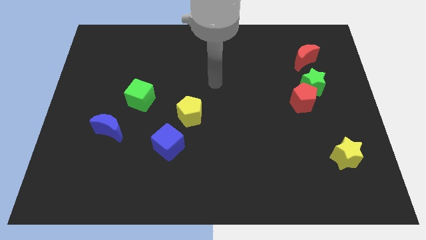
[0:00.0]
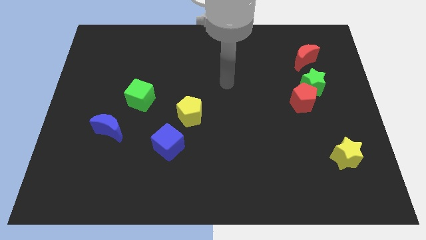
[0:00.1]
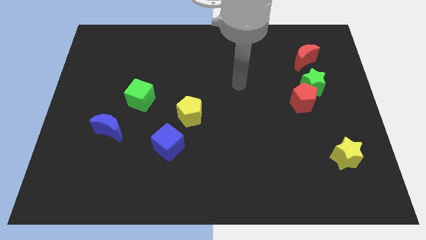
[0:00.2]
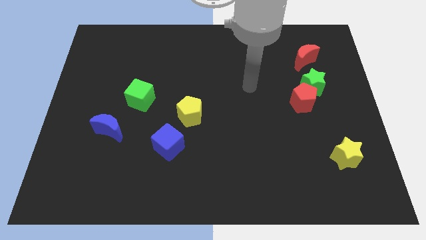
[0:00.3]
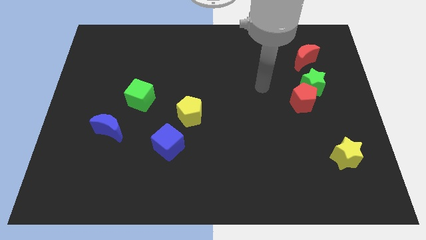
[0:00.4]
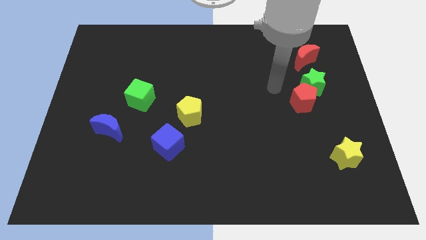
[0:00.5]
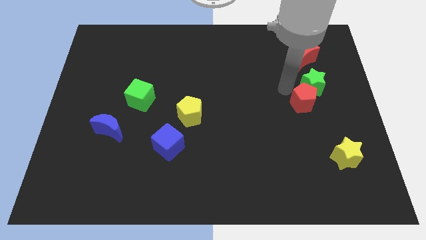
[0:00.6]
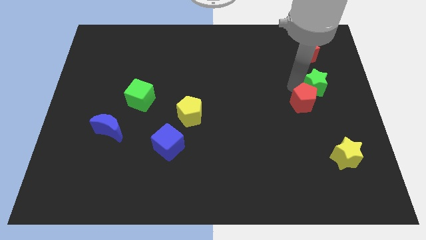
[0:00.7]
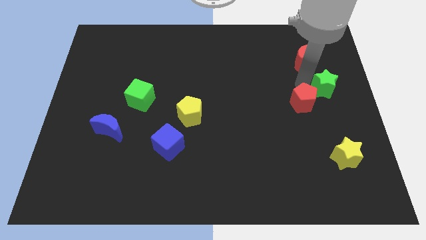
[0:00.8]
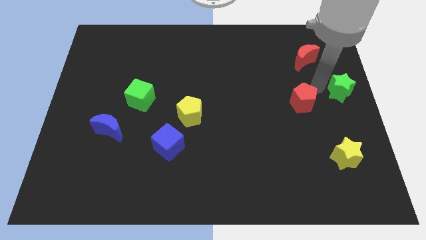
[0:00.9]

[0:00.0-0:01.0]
move the red pentagon away from the green star

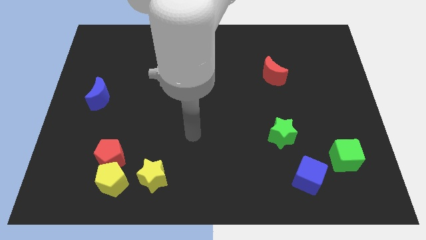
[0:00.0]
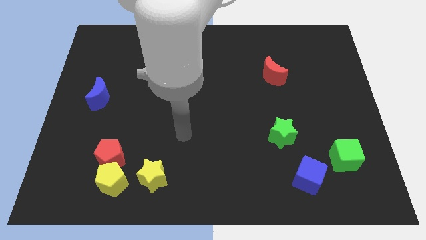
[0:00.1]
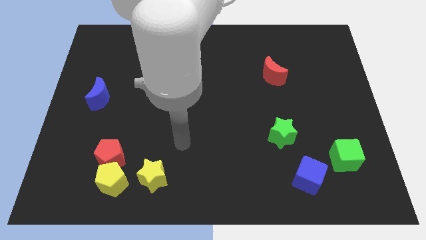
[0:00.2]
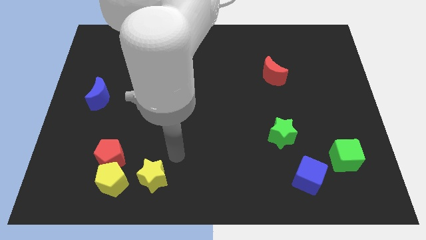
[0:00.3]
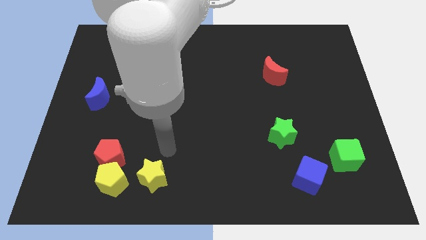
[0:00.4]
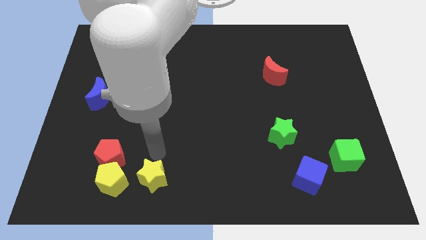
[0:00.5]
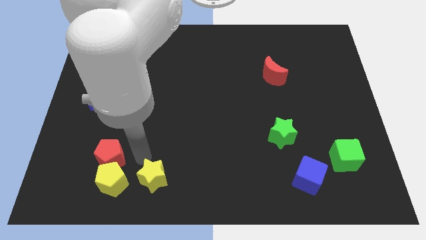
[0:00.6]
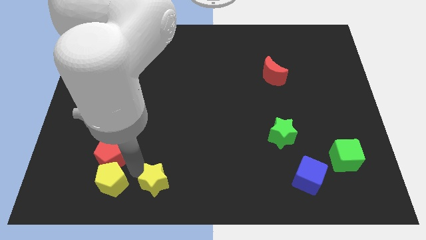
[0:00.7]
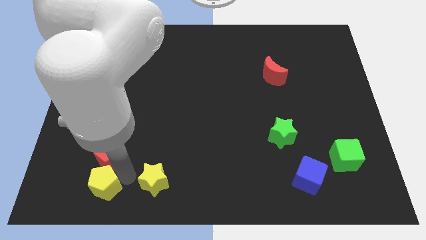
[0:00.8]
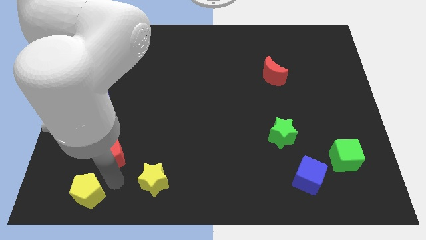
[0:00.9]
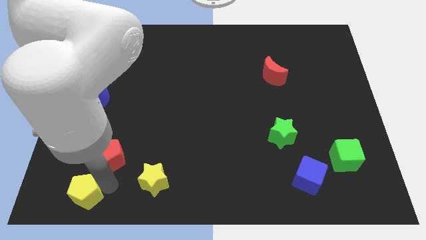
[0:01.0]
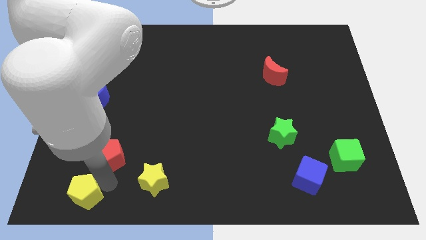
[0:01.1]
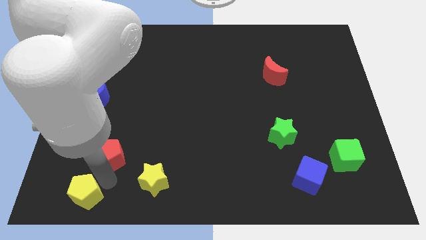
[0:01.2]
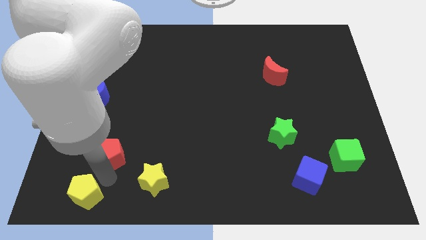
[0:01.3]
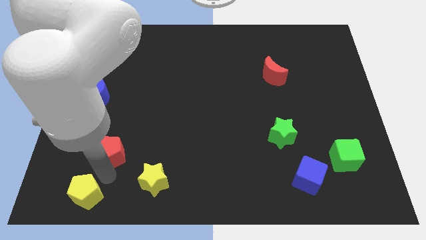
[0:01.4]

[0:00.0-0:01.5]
separate the red pentagon from the yellow pentagon

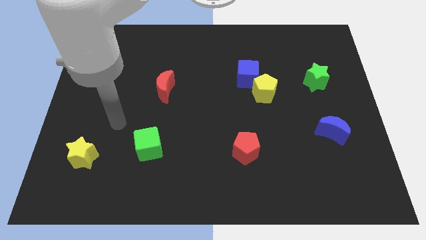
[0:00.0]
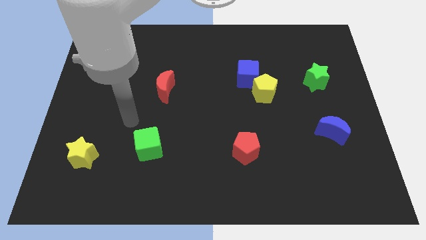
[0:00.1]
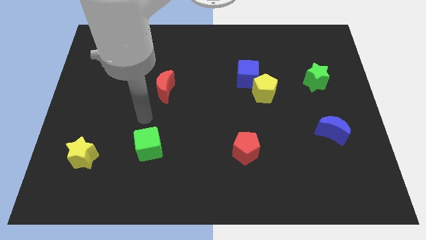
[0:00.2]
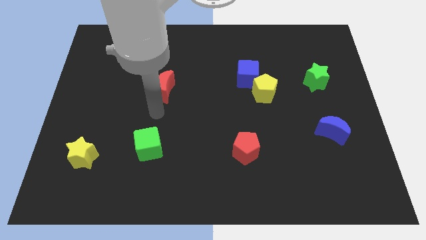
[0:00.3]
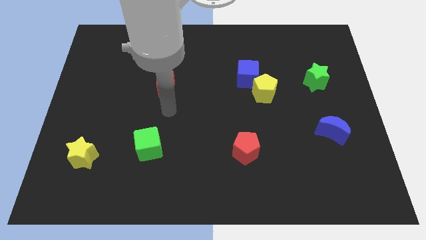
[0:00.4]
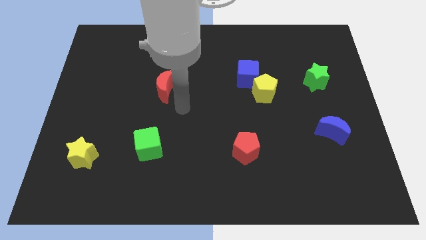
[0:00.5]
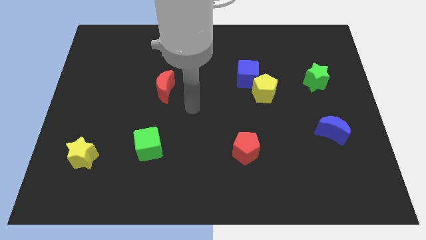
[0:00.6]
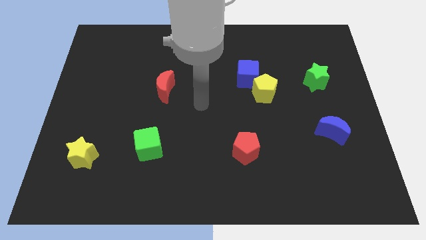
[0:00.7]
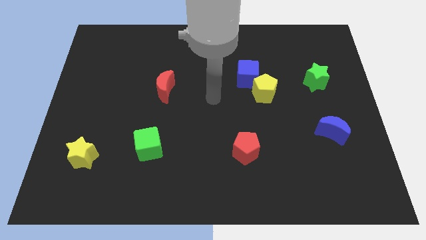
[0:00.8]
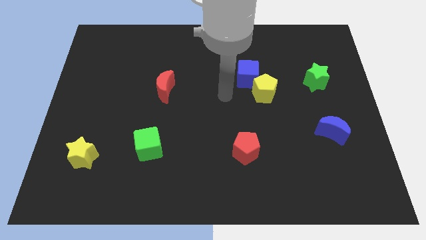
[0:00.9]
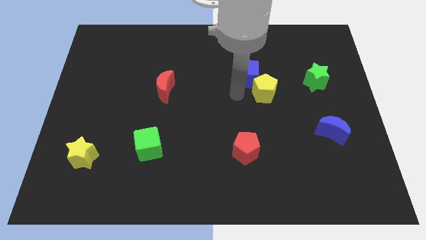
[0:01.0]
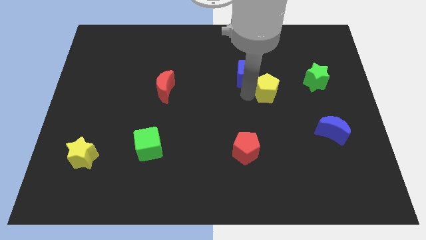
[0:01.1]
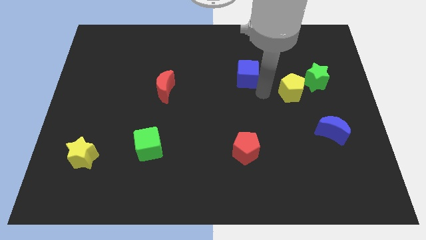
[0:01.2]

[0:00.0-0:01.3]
move the blue cube away from the yellow pentagon

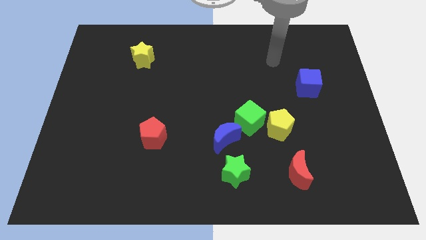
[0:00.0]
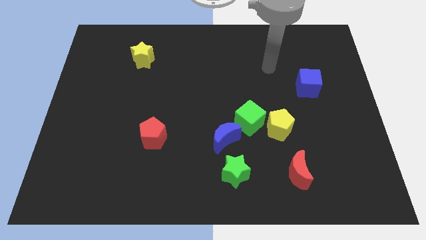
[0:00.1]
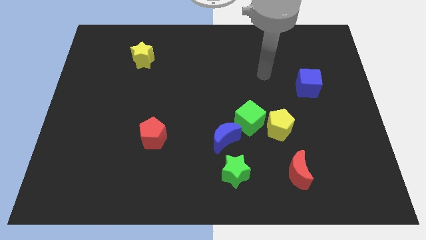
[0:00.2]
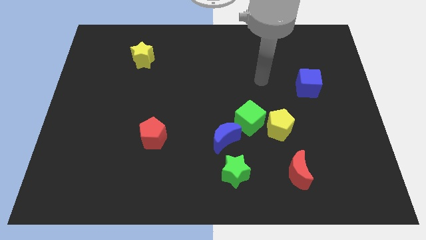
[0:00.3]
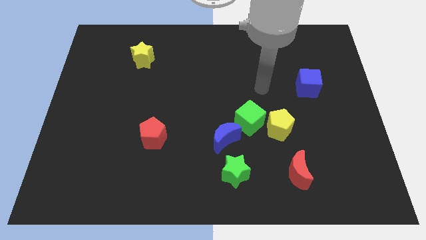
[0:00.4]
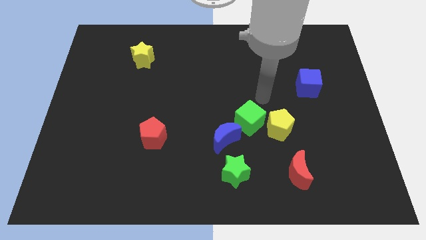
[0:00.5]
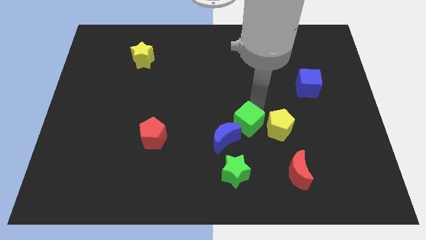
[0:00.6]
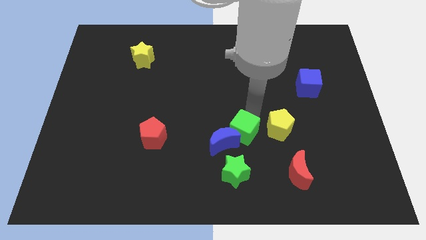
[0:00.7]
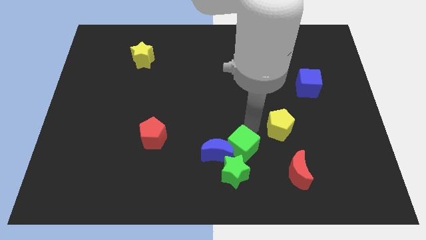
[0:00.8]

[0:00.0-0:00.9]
move the yellow pentagon away from the green cube

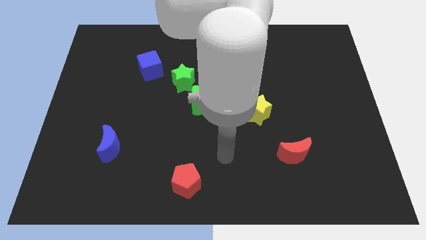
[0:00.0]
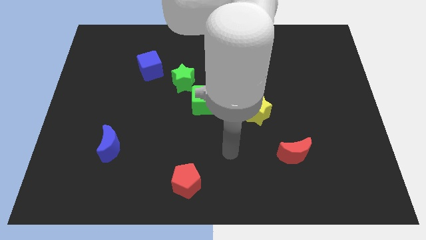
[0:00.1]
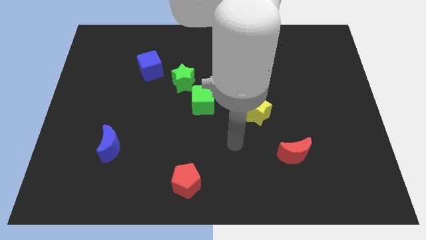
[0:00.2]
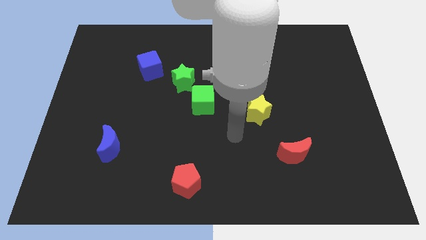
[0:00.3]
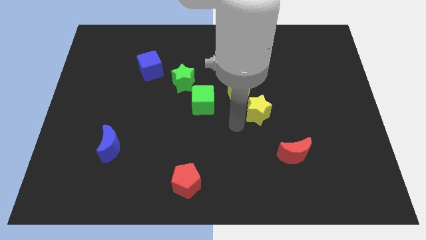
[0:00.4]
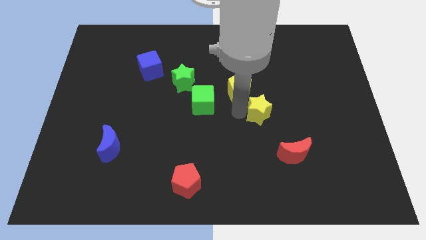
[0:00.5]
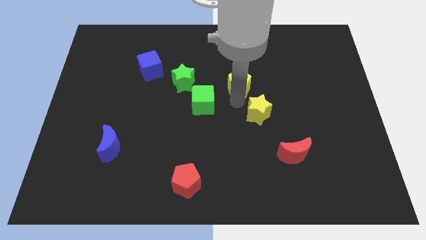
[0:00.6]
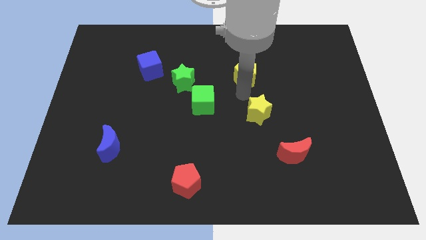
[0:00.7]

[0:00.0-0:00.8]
move the yellow star away from the yellow pentagon

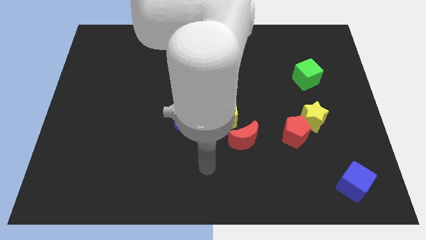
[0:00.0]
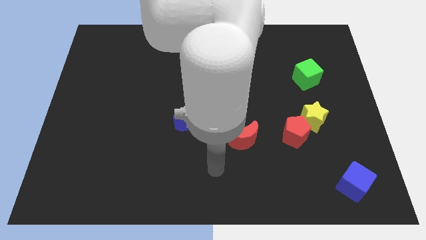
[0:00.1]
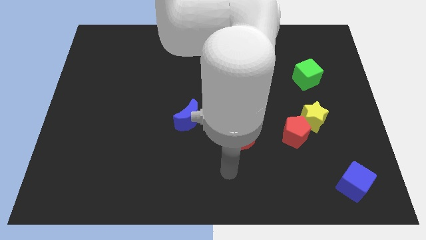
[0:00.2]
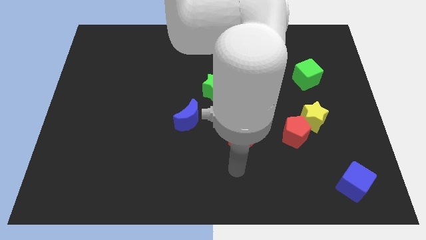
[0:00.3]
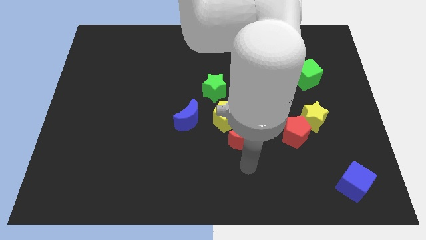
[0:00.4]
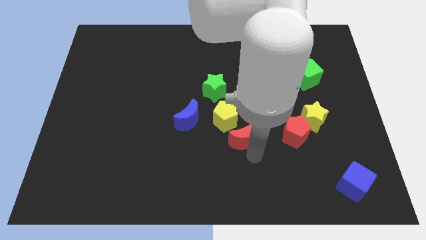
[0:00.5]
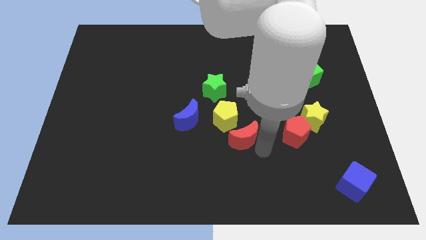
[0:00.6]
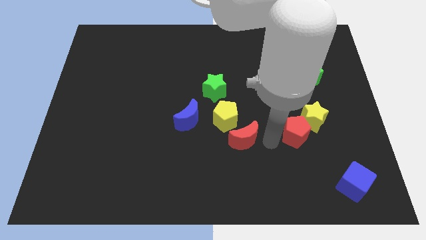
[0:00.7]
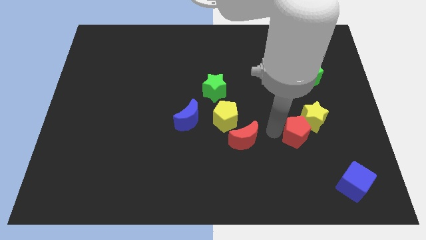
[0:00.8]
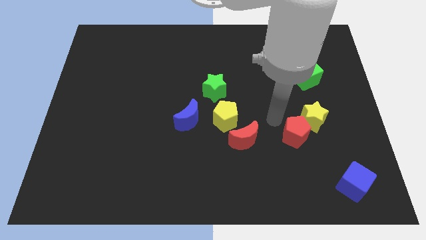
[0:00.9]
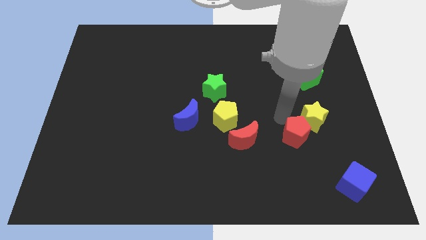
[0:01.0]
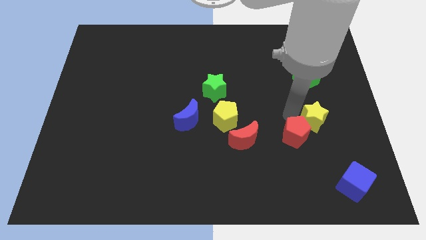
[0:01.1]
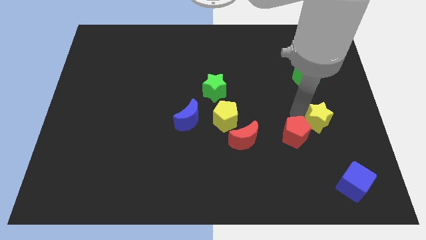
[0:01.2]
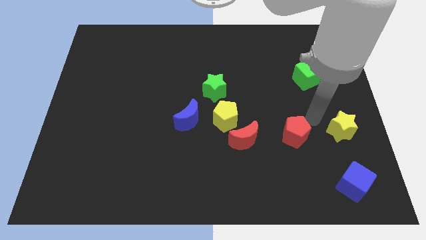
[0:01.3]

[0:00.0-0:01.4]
pull the red pentagon apart from the yellow star

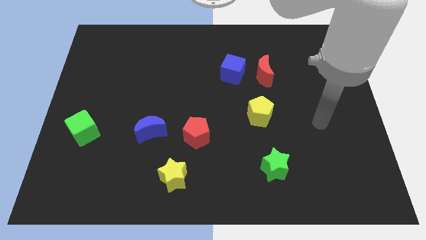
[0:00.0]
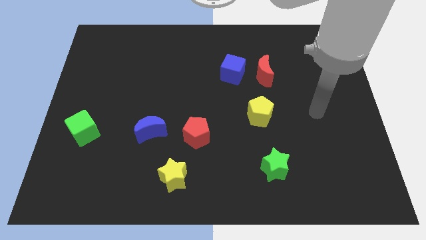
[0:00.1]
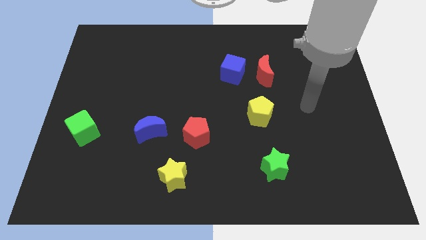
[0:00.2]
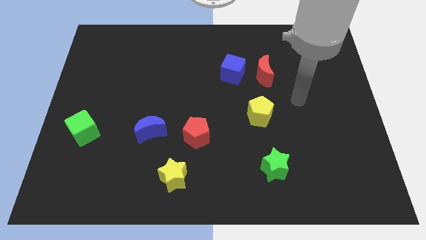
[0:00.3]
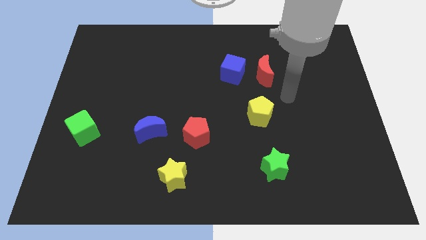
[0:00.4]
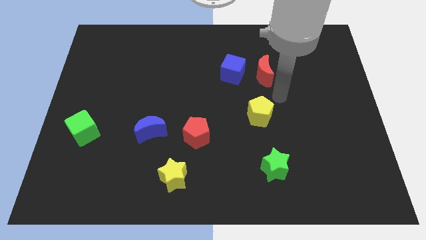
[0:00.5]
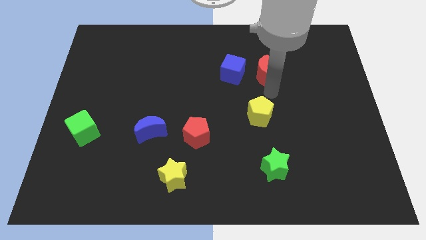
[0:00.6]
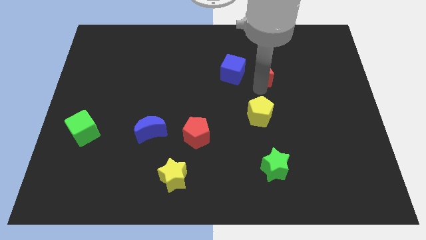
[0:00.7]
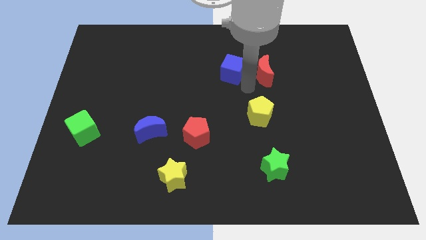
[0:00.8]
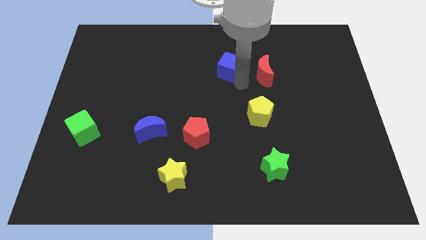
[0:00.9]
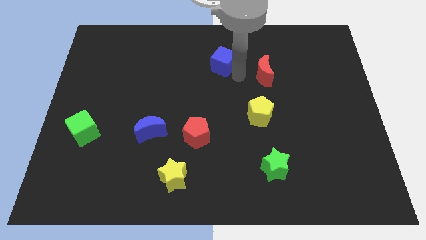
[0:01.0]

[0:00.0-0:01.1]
move the red moon away from the blue cube

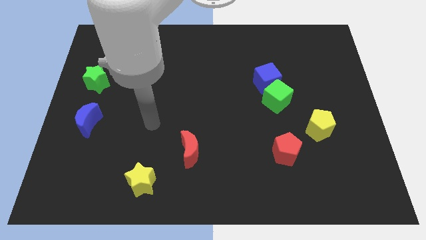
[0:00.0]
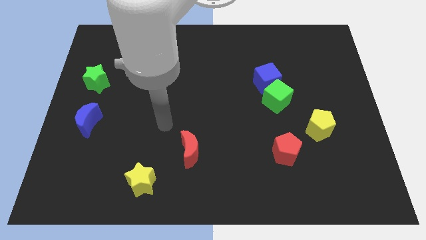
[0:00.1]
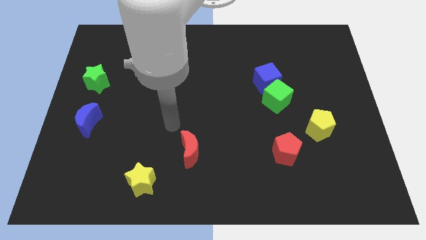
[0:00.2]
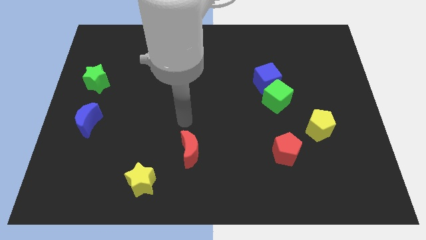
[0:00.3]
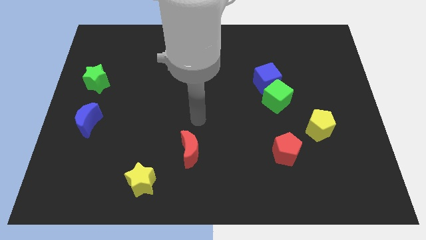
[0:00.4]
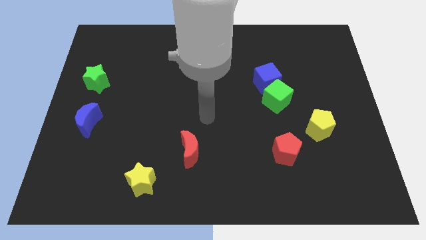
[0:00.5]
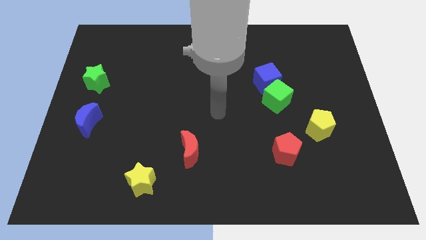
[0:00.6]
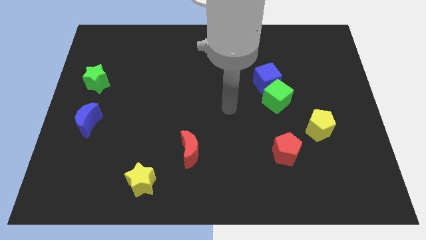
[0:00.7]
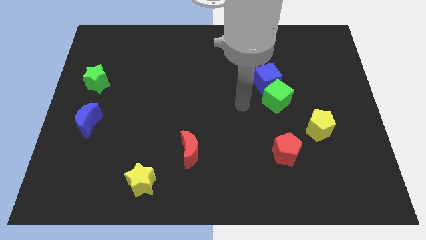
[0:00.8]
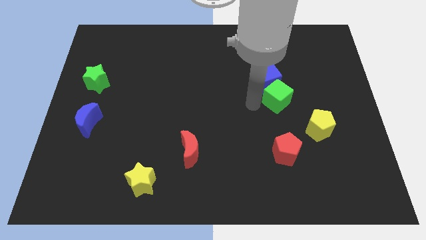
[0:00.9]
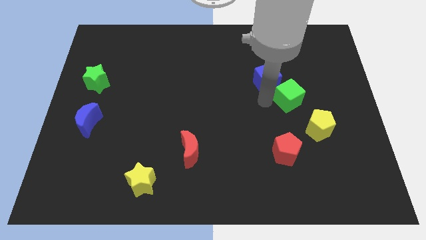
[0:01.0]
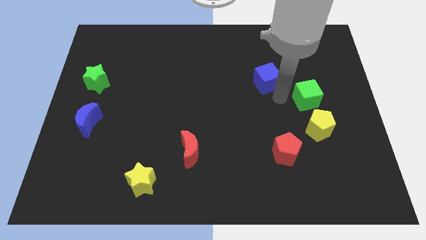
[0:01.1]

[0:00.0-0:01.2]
separate the blue cube from the green cube

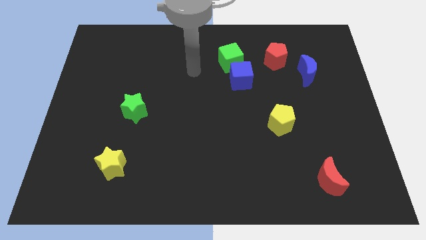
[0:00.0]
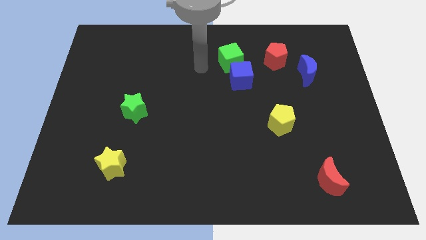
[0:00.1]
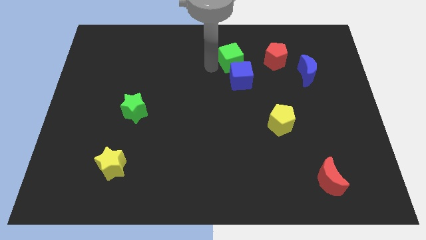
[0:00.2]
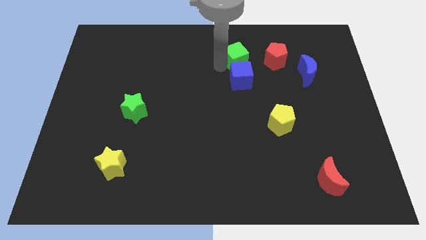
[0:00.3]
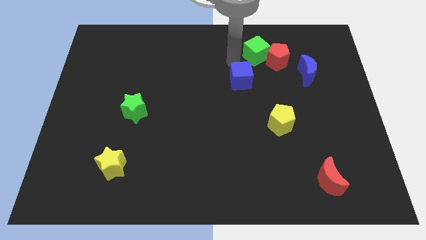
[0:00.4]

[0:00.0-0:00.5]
pull the blue cube apart from the green cube
